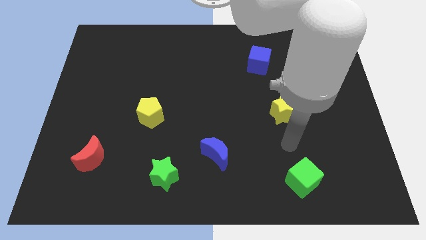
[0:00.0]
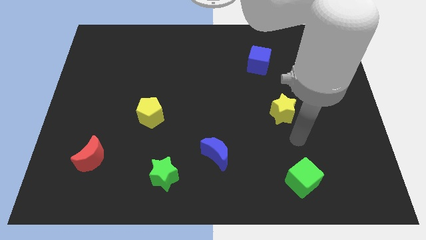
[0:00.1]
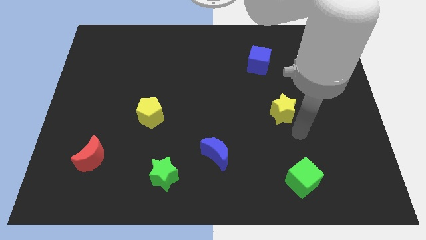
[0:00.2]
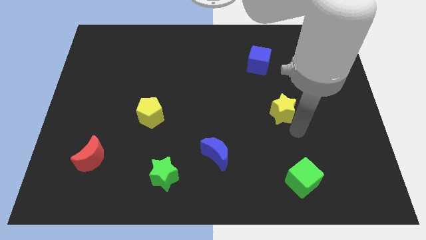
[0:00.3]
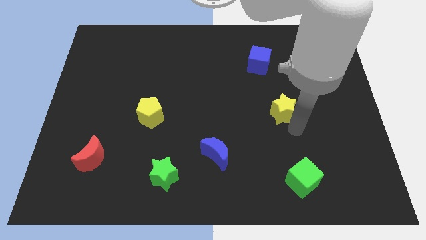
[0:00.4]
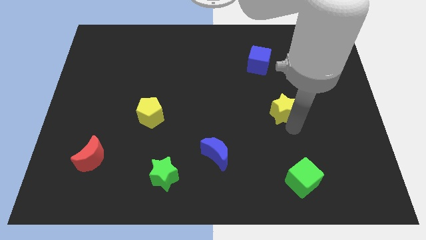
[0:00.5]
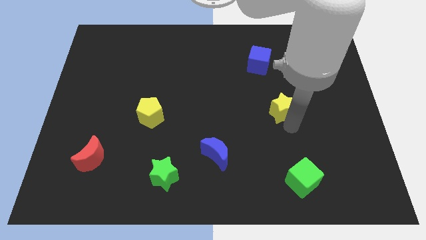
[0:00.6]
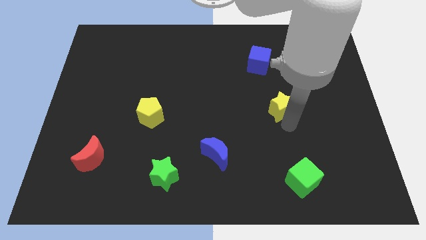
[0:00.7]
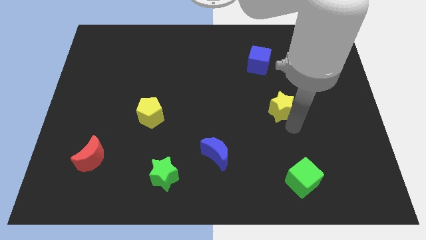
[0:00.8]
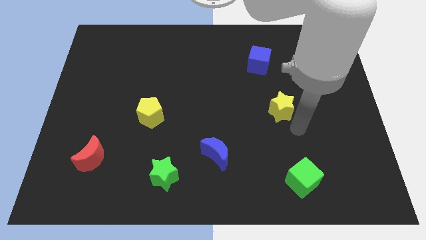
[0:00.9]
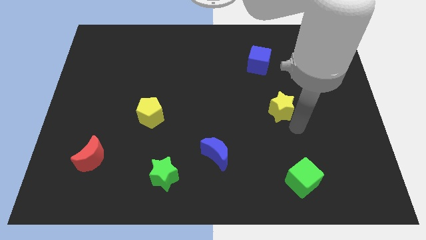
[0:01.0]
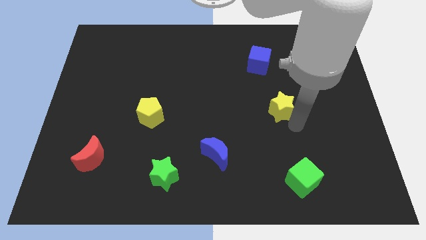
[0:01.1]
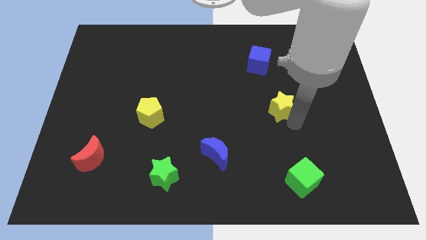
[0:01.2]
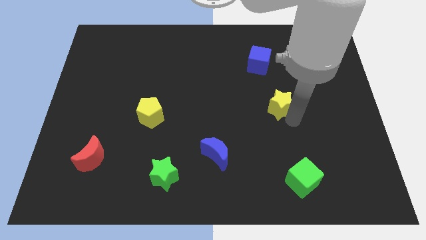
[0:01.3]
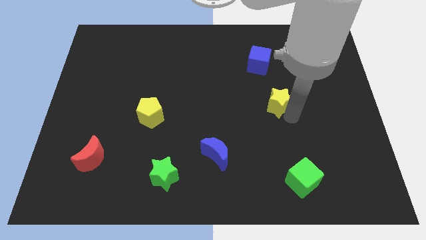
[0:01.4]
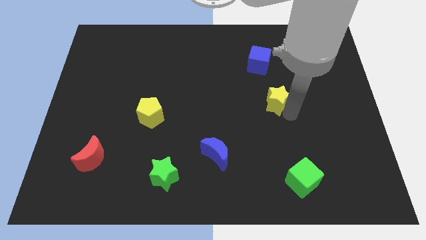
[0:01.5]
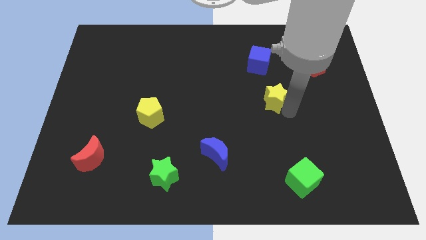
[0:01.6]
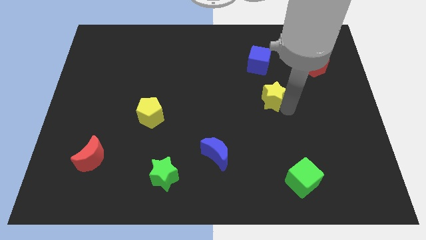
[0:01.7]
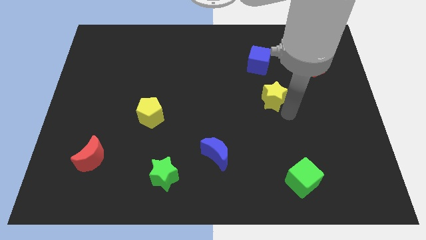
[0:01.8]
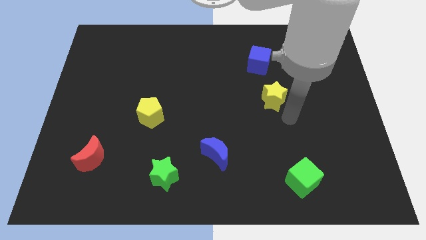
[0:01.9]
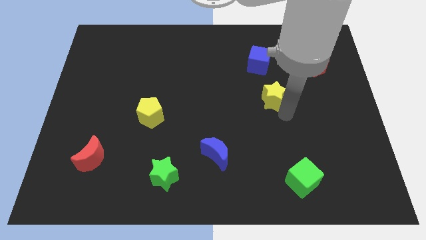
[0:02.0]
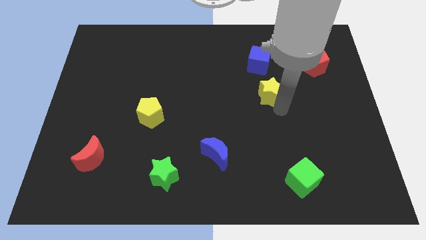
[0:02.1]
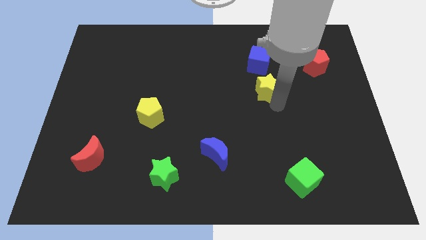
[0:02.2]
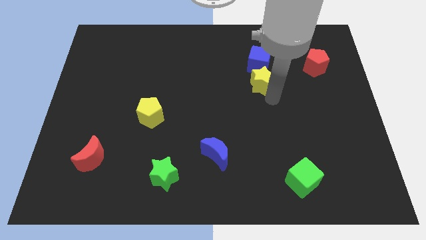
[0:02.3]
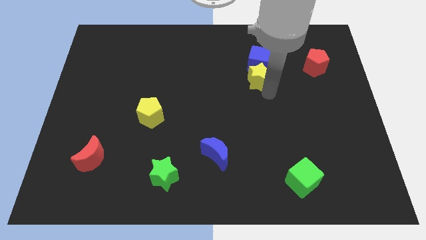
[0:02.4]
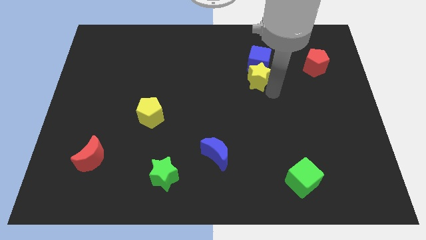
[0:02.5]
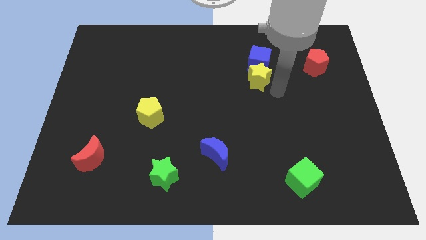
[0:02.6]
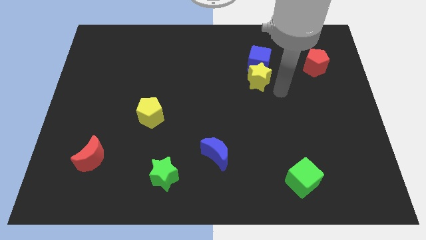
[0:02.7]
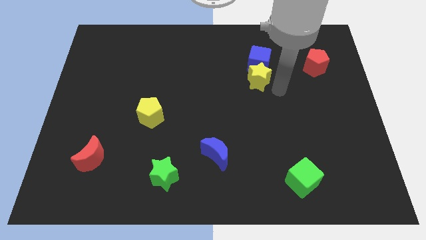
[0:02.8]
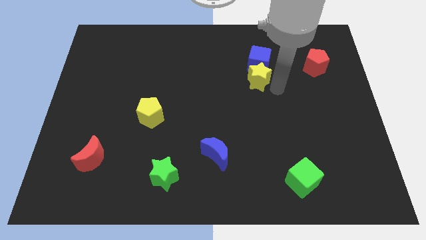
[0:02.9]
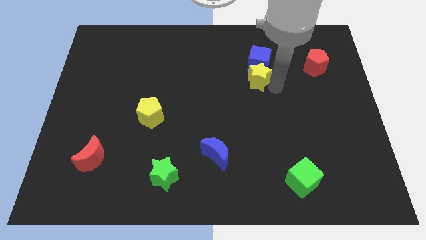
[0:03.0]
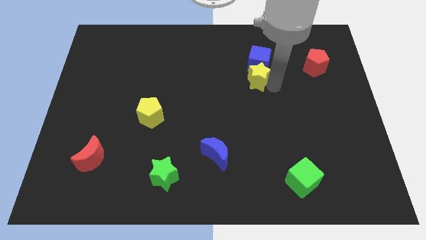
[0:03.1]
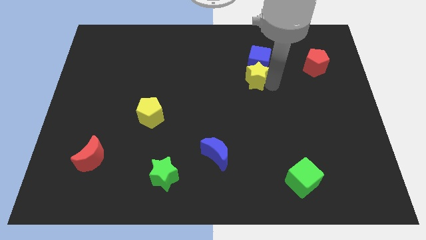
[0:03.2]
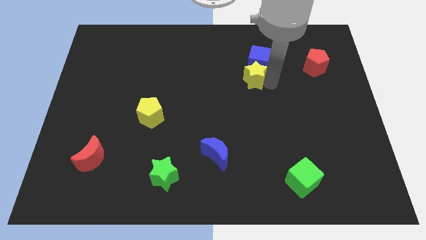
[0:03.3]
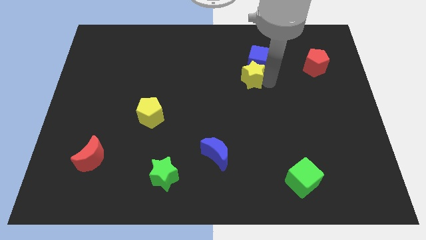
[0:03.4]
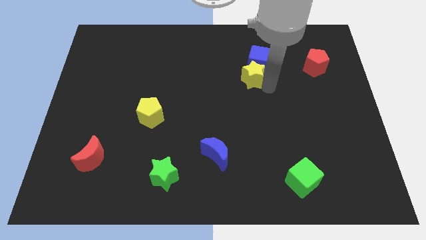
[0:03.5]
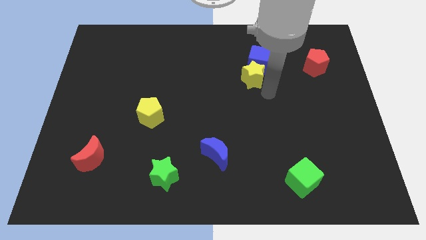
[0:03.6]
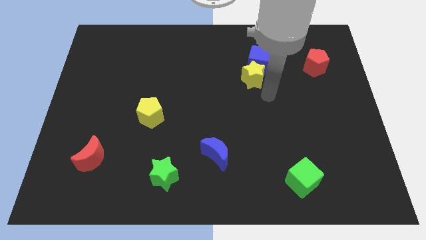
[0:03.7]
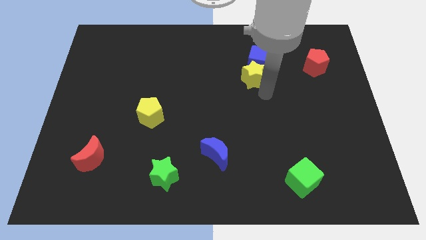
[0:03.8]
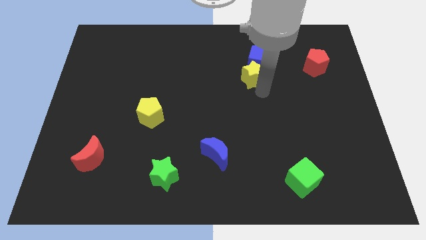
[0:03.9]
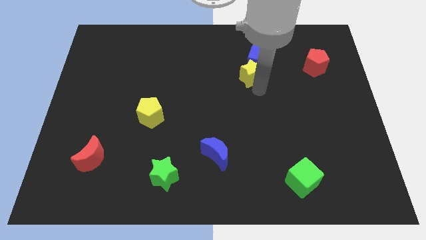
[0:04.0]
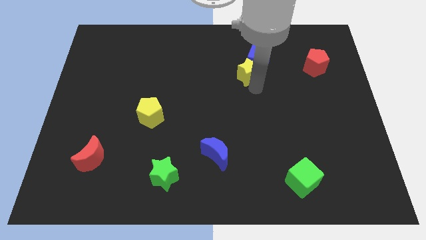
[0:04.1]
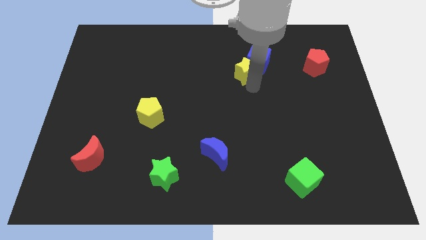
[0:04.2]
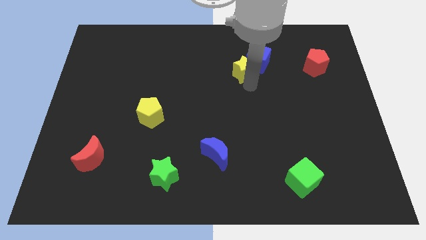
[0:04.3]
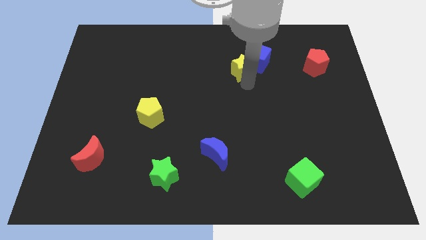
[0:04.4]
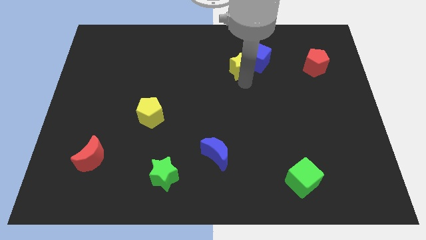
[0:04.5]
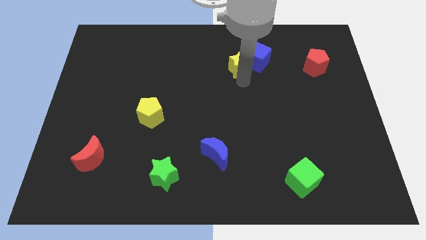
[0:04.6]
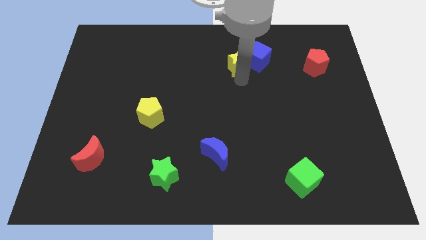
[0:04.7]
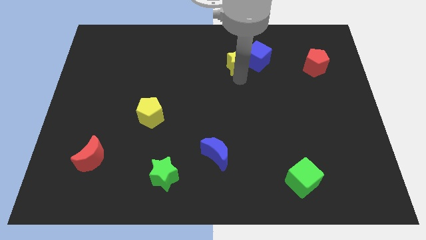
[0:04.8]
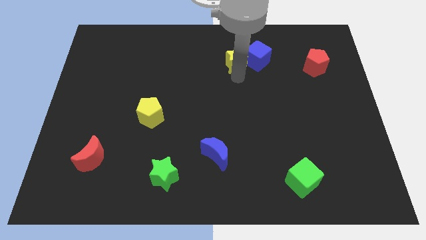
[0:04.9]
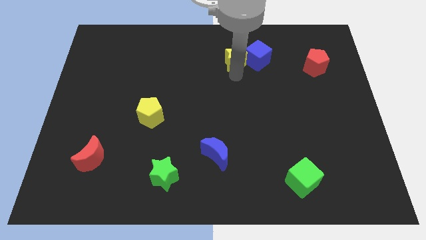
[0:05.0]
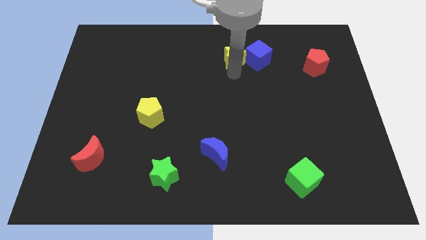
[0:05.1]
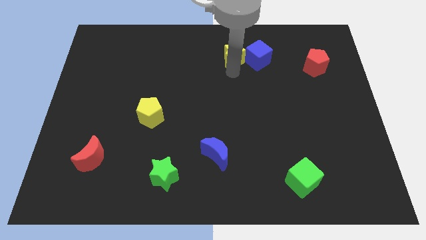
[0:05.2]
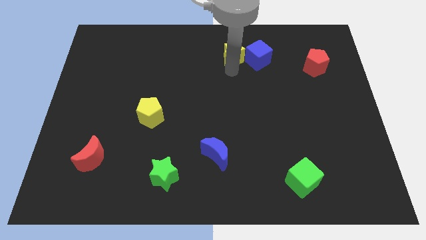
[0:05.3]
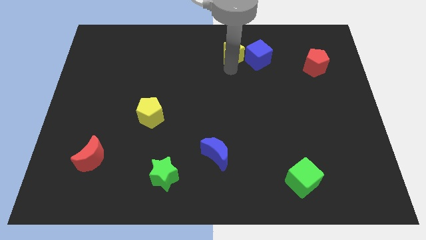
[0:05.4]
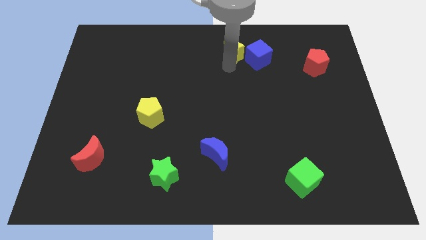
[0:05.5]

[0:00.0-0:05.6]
push the yellow star to the top
